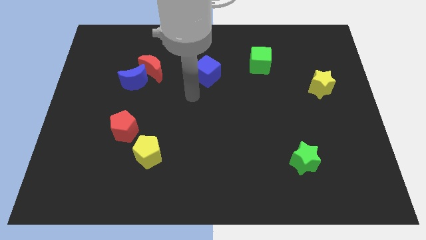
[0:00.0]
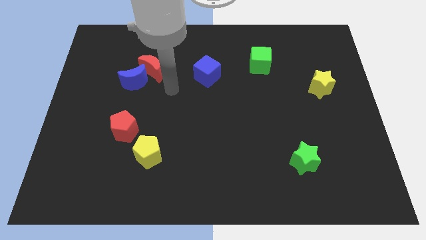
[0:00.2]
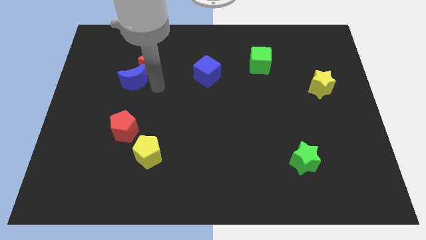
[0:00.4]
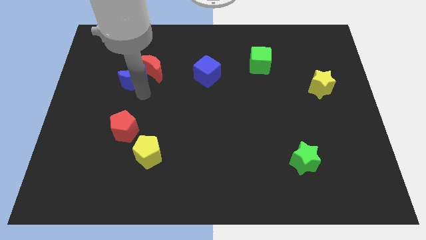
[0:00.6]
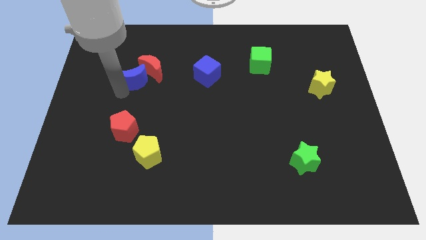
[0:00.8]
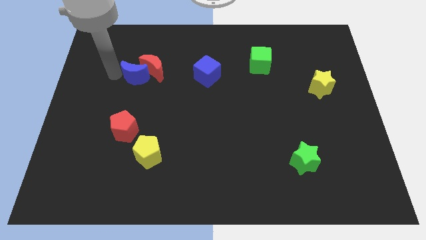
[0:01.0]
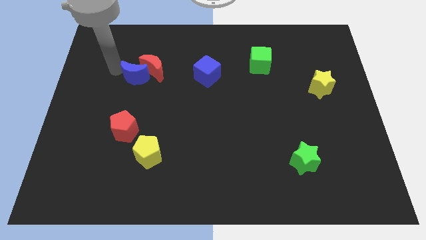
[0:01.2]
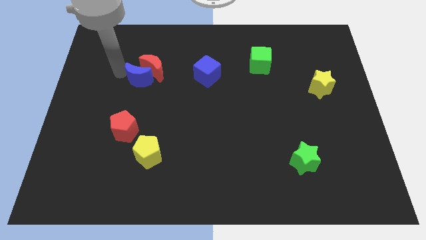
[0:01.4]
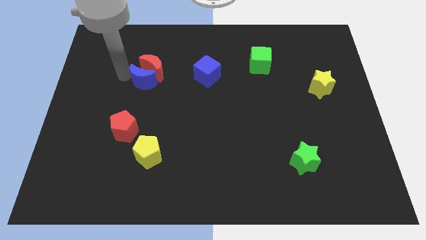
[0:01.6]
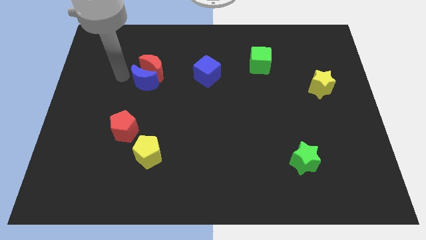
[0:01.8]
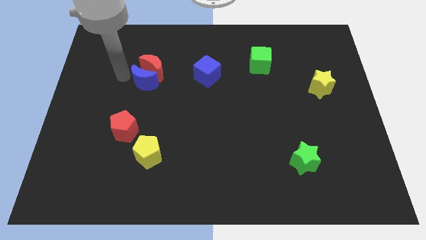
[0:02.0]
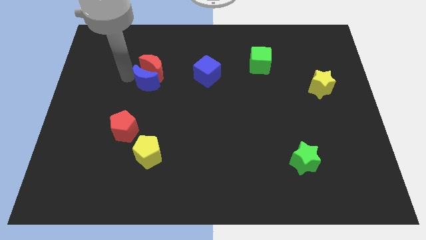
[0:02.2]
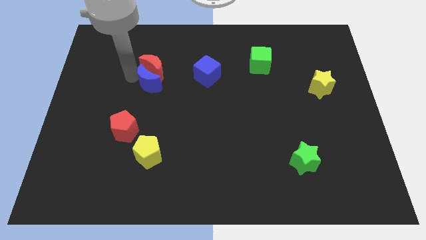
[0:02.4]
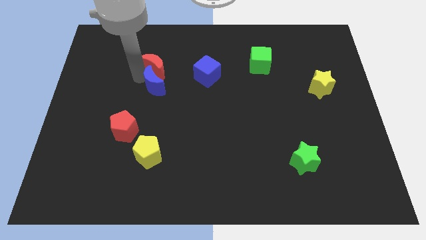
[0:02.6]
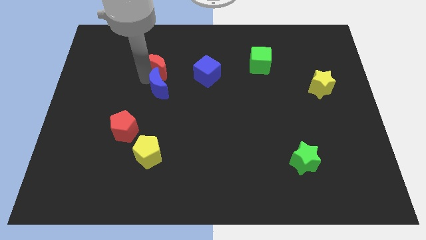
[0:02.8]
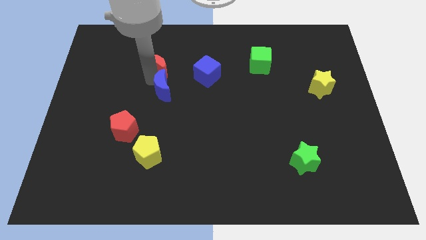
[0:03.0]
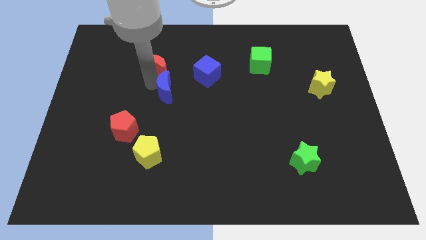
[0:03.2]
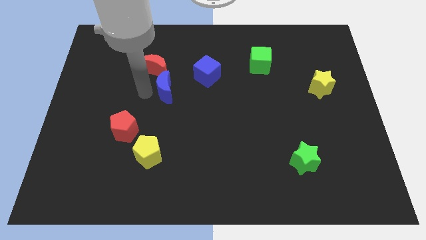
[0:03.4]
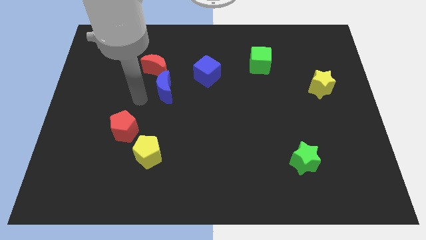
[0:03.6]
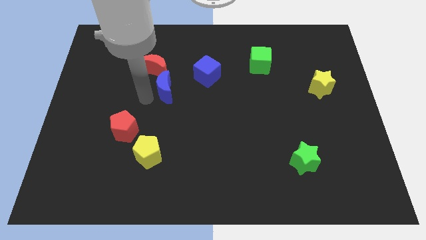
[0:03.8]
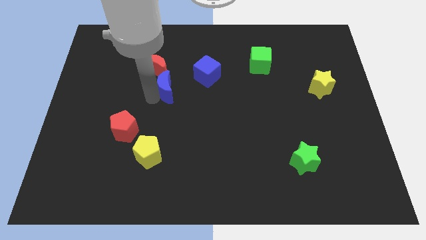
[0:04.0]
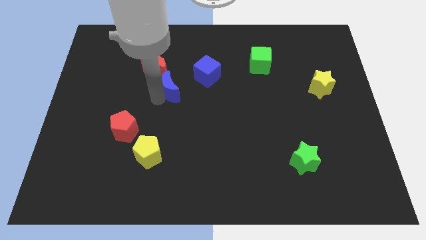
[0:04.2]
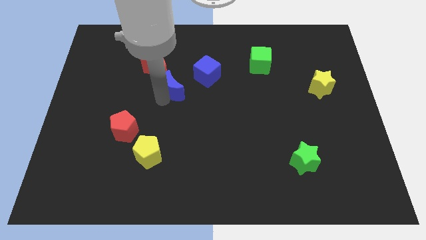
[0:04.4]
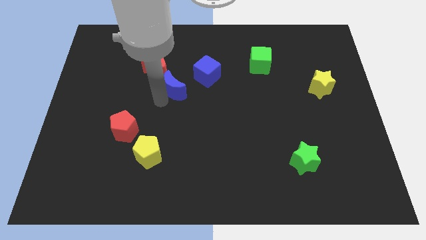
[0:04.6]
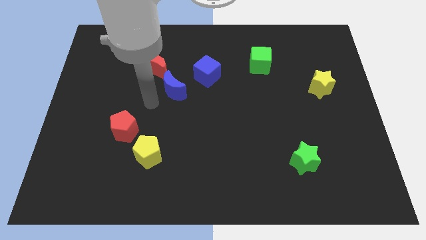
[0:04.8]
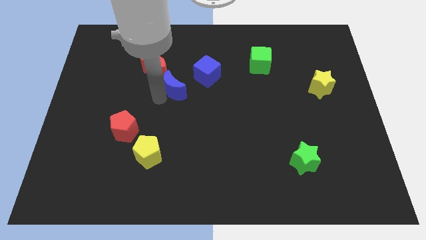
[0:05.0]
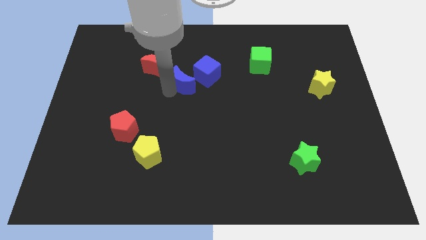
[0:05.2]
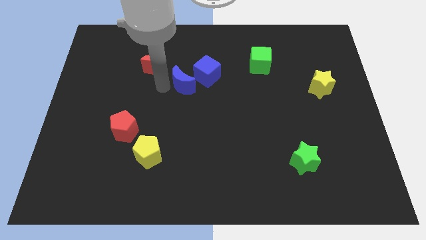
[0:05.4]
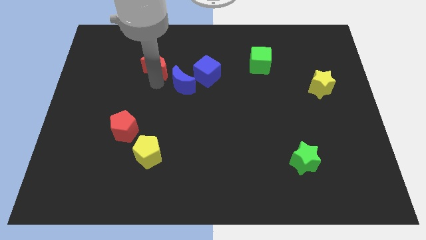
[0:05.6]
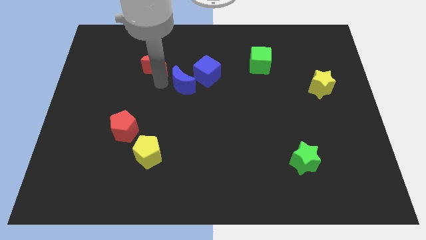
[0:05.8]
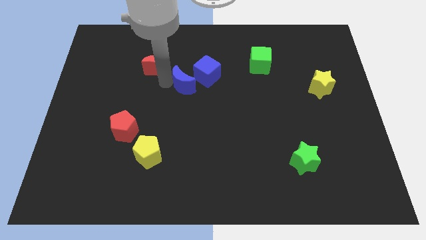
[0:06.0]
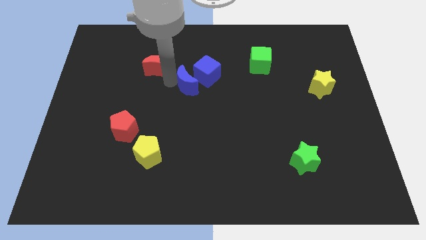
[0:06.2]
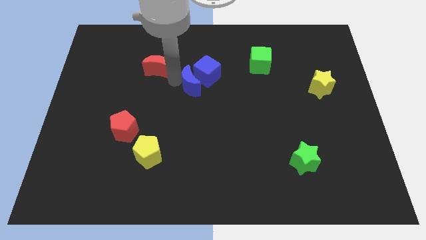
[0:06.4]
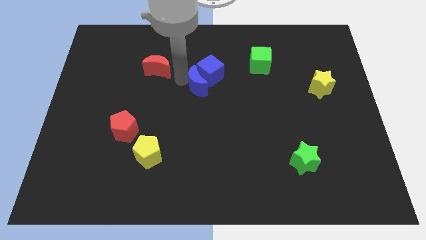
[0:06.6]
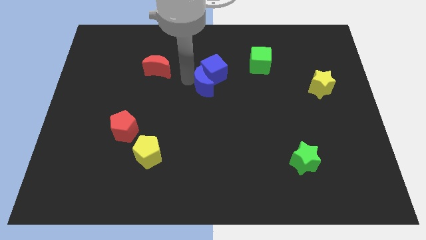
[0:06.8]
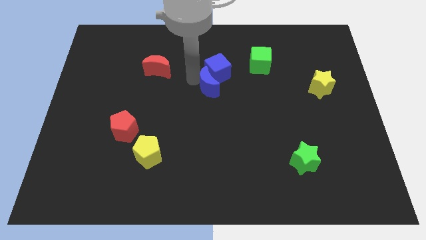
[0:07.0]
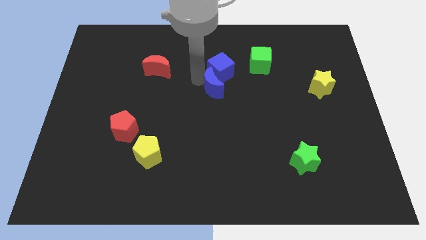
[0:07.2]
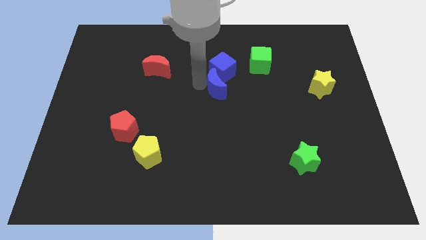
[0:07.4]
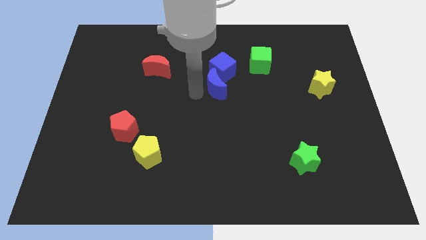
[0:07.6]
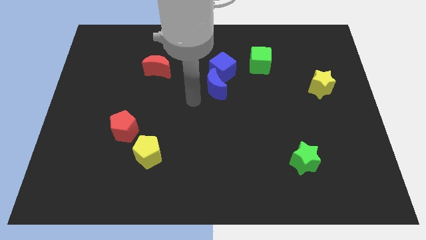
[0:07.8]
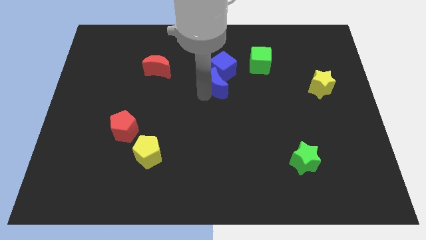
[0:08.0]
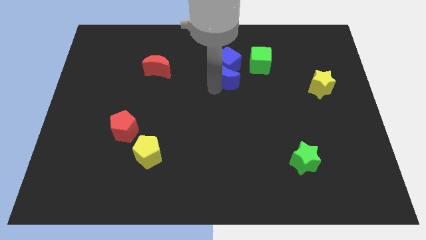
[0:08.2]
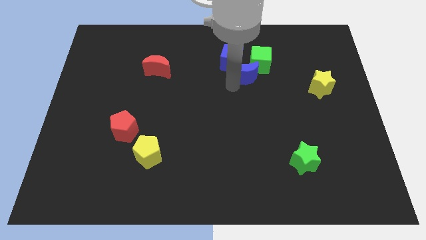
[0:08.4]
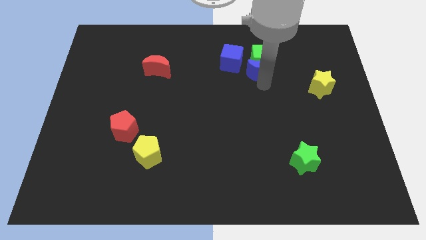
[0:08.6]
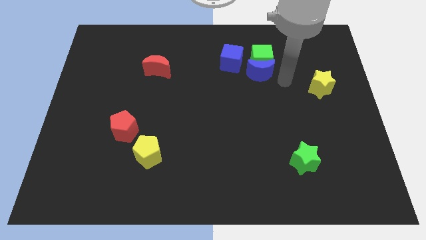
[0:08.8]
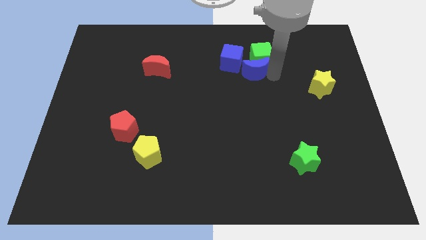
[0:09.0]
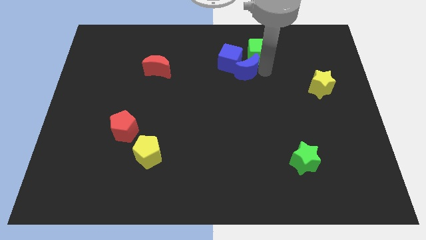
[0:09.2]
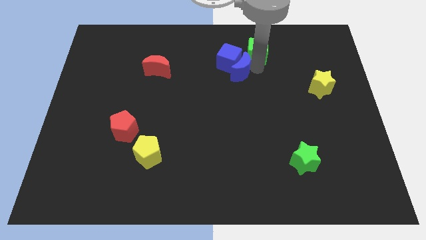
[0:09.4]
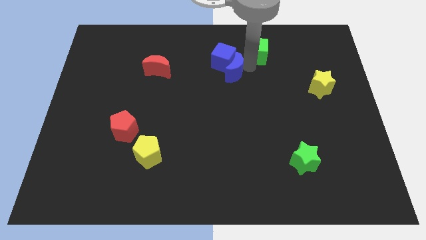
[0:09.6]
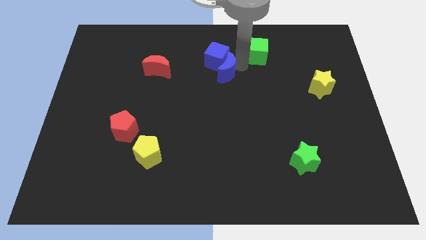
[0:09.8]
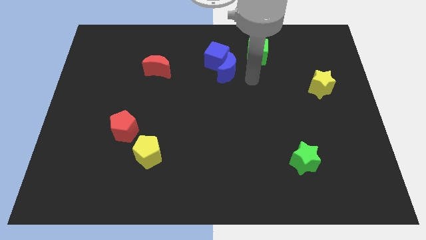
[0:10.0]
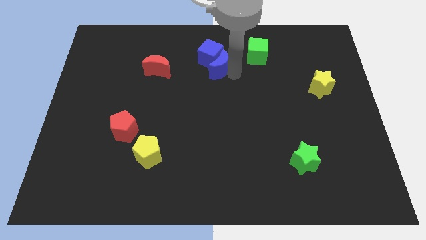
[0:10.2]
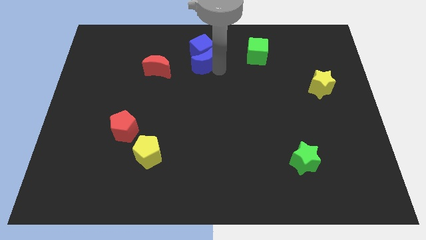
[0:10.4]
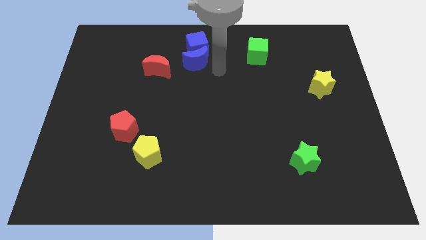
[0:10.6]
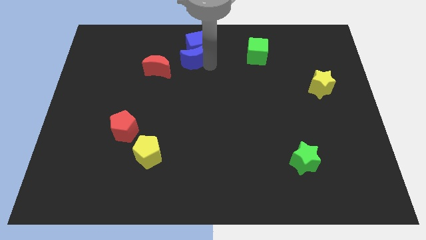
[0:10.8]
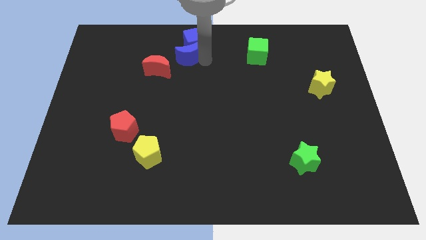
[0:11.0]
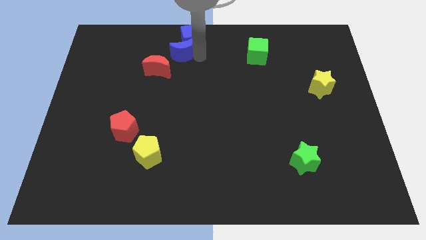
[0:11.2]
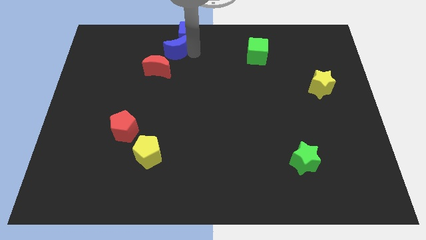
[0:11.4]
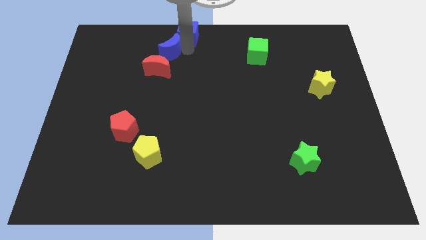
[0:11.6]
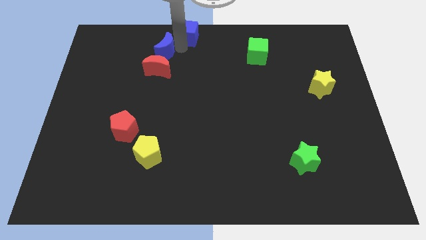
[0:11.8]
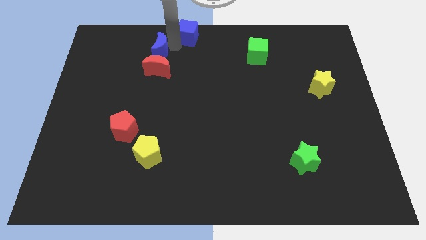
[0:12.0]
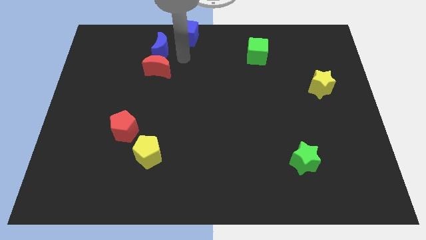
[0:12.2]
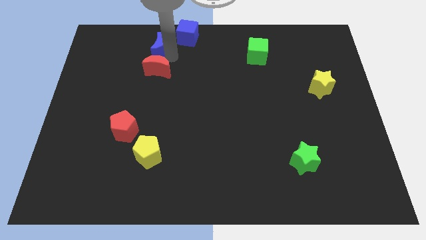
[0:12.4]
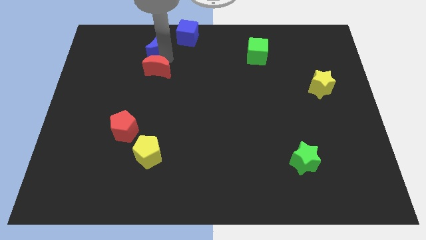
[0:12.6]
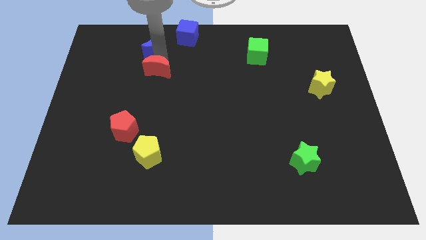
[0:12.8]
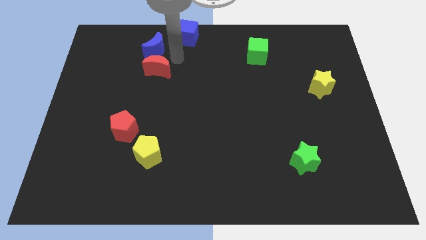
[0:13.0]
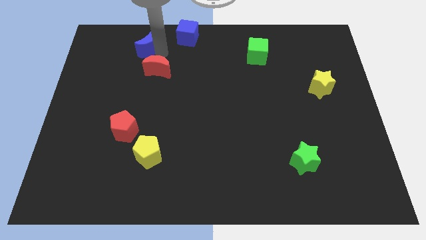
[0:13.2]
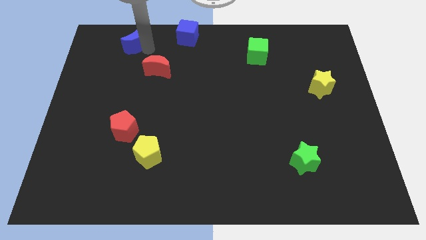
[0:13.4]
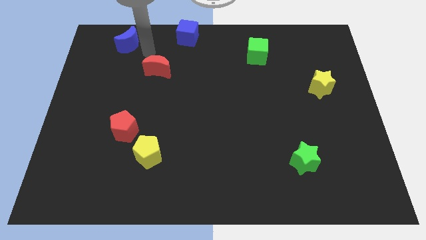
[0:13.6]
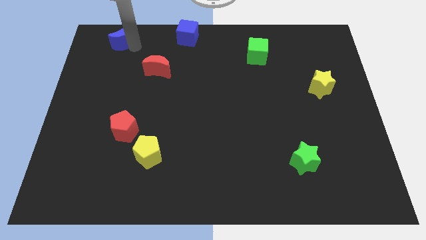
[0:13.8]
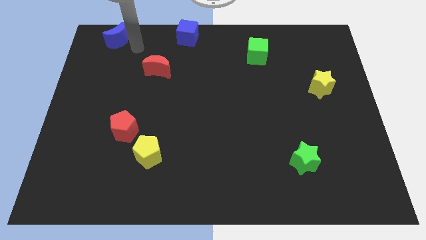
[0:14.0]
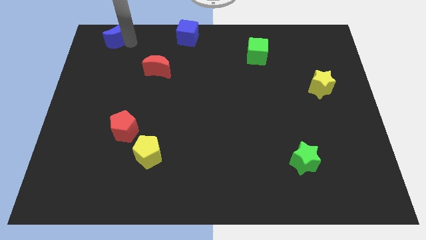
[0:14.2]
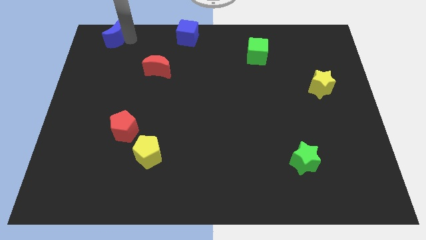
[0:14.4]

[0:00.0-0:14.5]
push the blue moon to the top left corner
